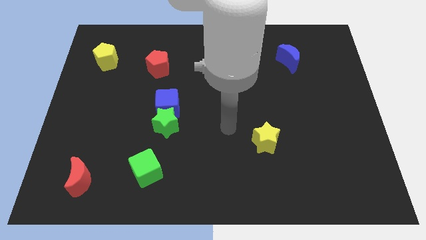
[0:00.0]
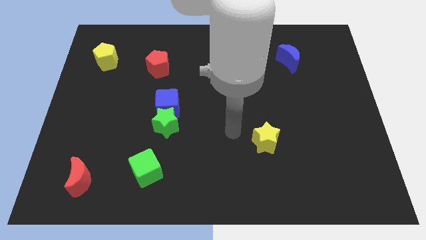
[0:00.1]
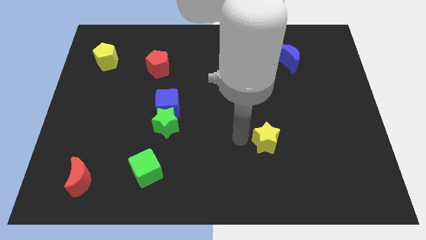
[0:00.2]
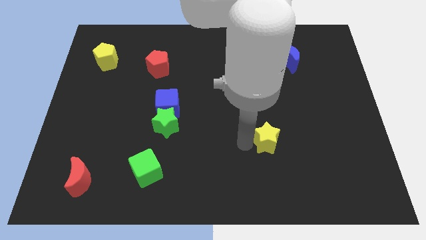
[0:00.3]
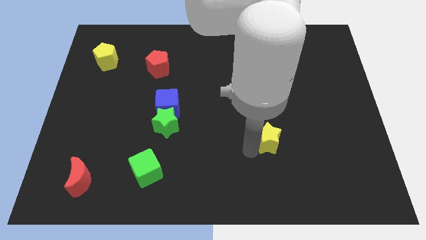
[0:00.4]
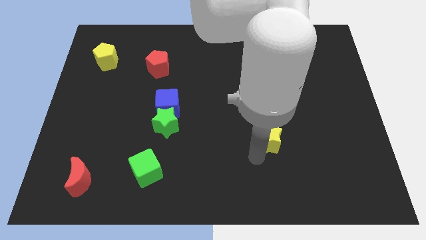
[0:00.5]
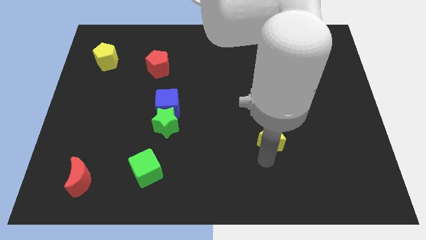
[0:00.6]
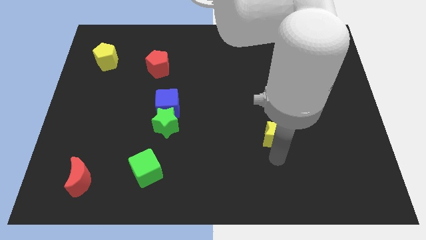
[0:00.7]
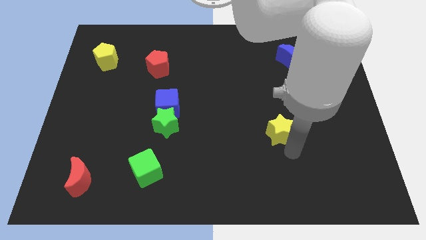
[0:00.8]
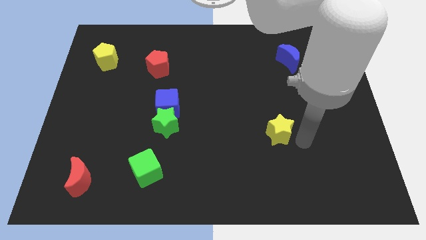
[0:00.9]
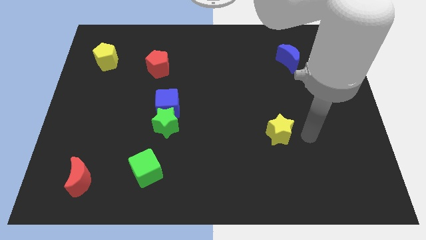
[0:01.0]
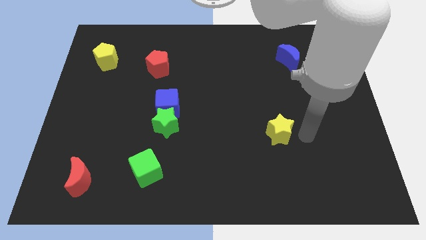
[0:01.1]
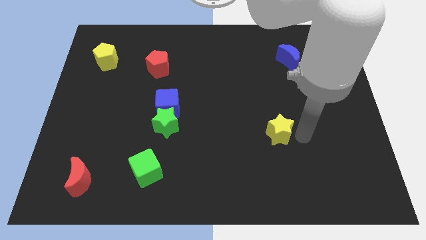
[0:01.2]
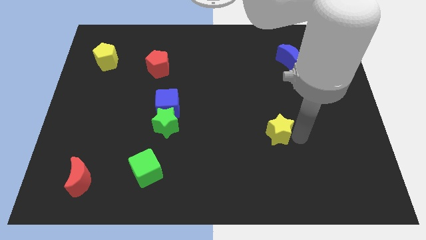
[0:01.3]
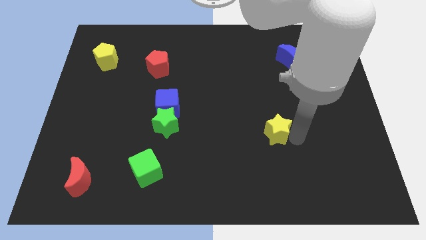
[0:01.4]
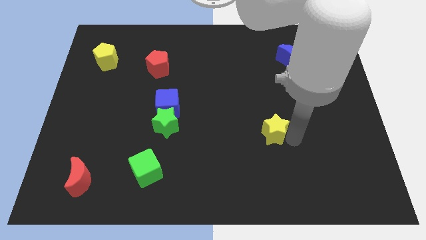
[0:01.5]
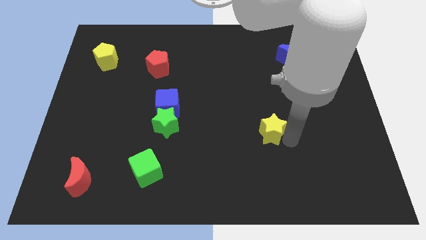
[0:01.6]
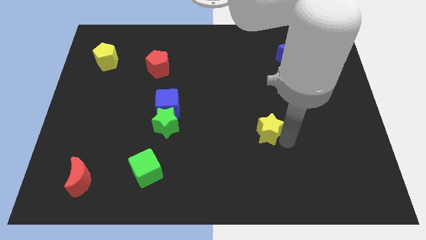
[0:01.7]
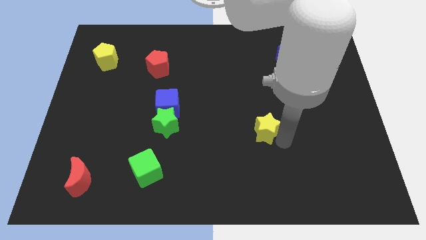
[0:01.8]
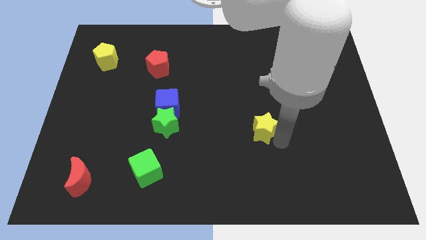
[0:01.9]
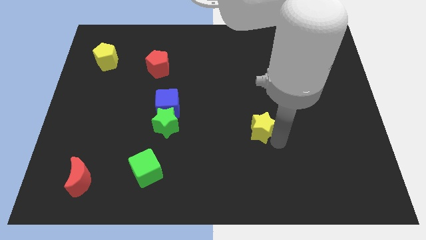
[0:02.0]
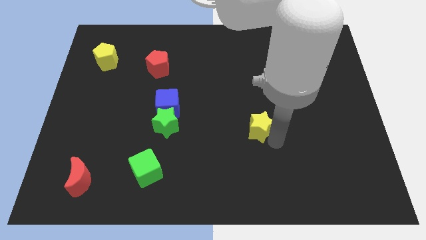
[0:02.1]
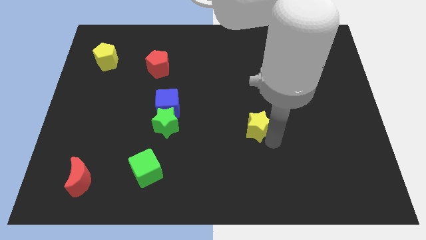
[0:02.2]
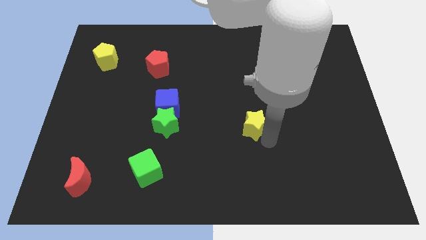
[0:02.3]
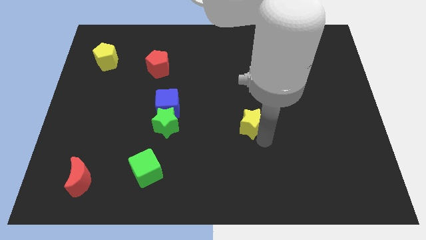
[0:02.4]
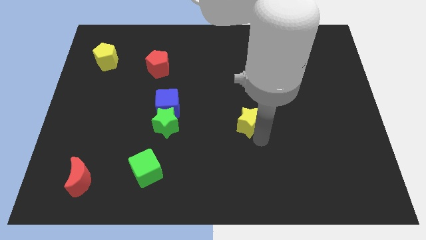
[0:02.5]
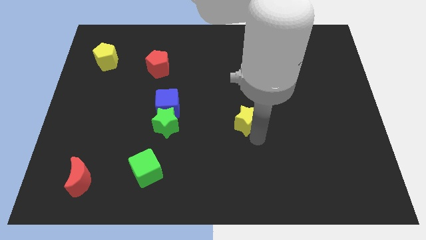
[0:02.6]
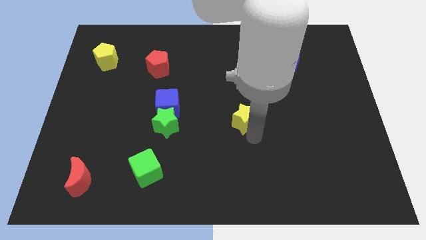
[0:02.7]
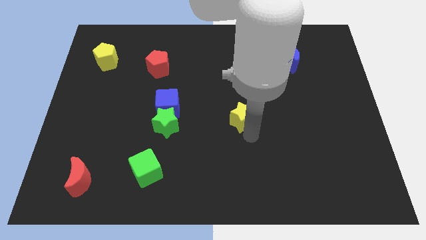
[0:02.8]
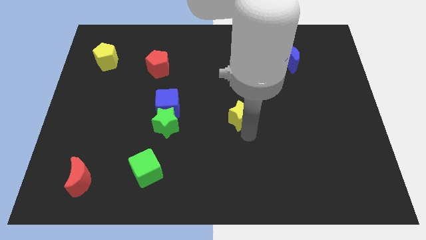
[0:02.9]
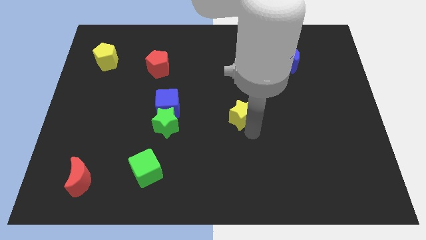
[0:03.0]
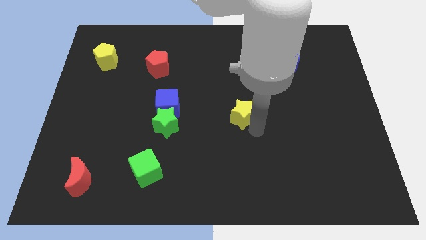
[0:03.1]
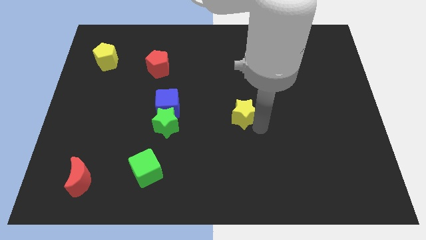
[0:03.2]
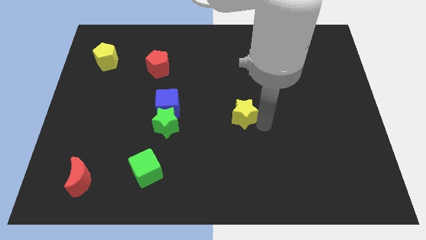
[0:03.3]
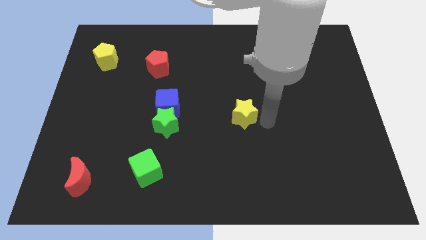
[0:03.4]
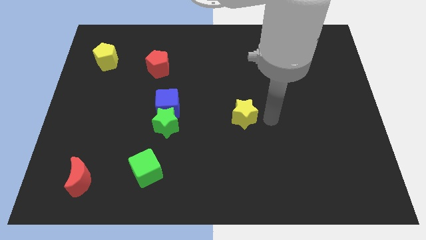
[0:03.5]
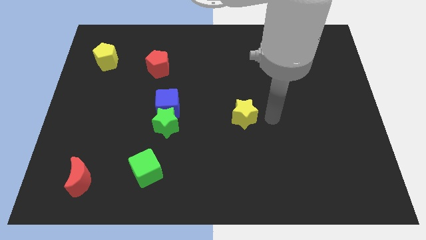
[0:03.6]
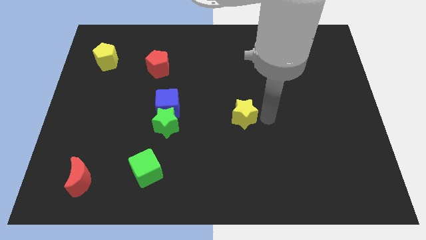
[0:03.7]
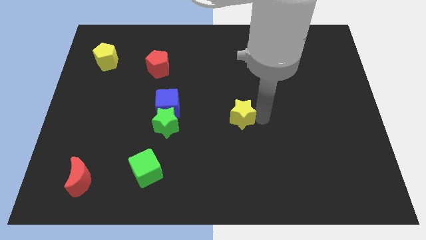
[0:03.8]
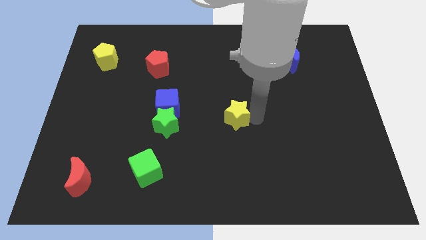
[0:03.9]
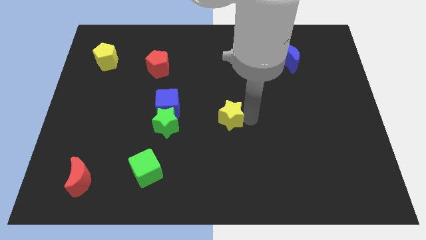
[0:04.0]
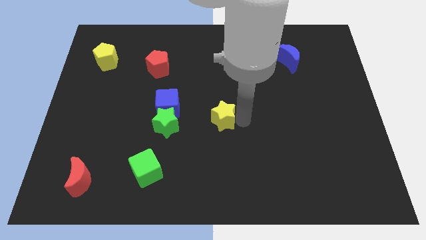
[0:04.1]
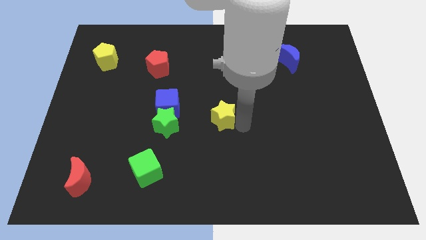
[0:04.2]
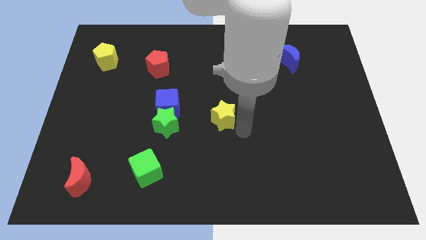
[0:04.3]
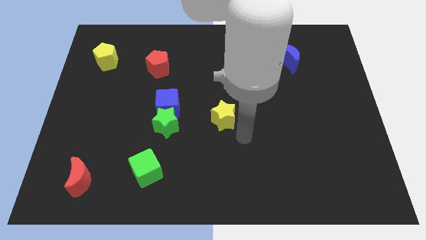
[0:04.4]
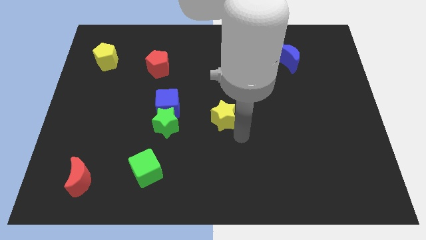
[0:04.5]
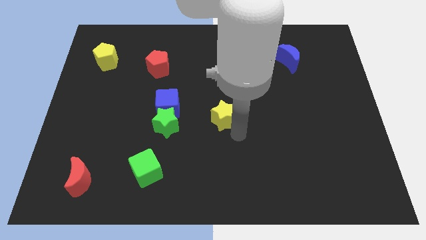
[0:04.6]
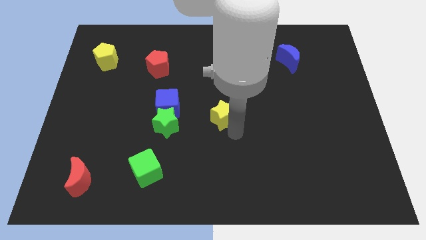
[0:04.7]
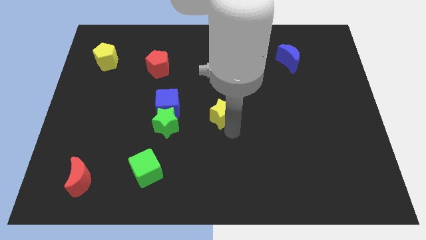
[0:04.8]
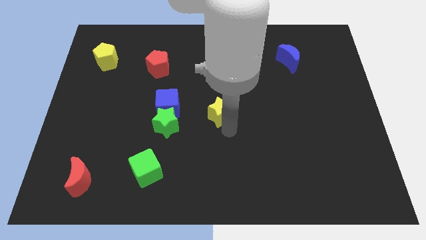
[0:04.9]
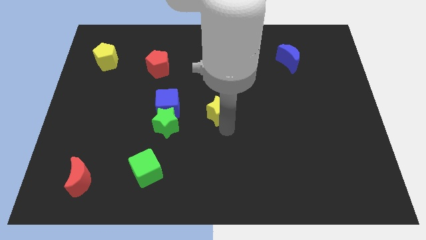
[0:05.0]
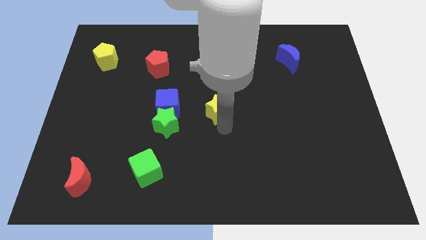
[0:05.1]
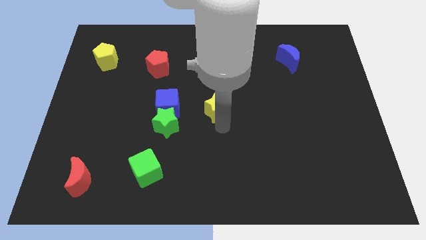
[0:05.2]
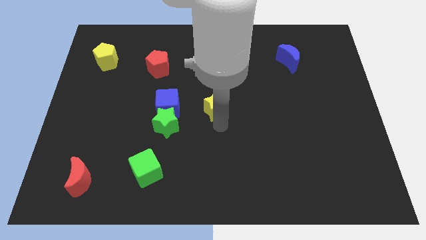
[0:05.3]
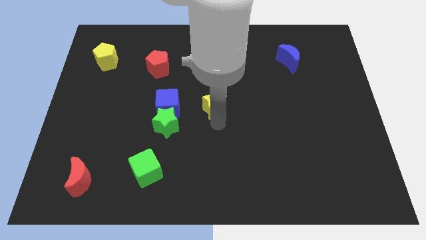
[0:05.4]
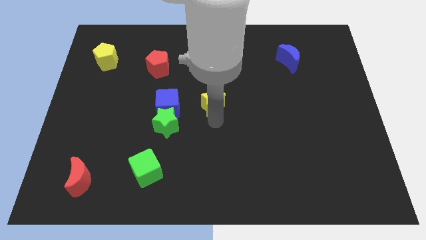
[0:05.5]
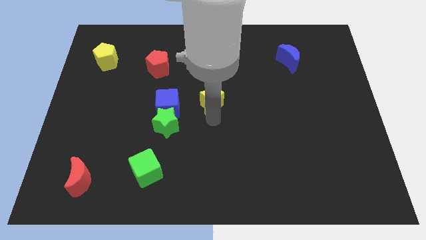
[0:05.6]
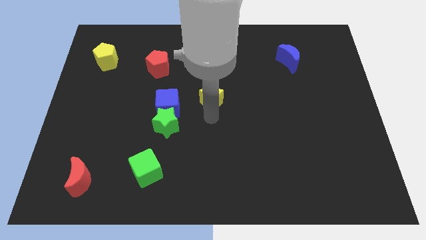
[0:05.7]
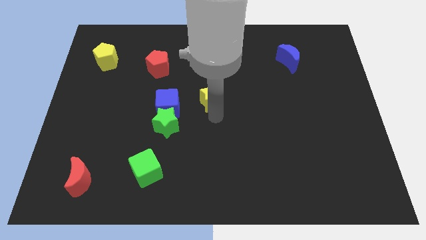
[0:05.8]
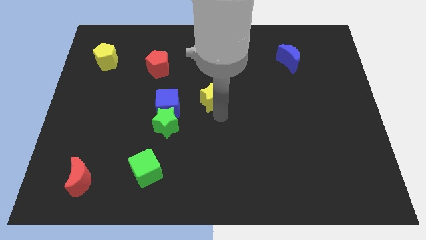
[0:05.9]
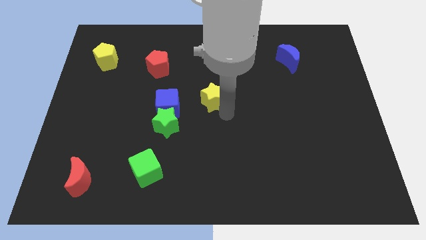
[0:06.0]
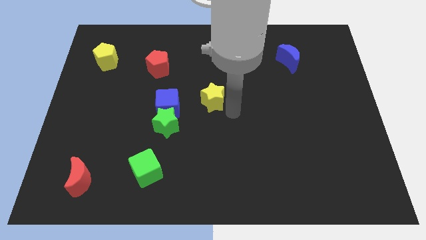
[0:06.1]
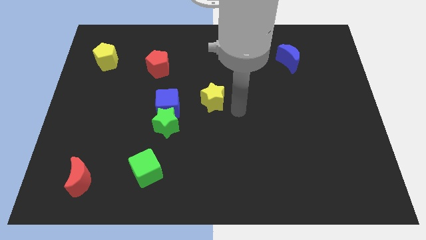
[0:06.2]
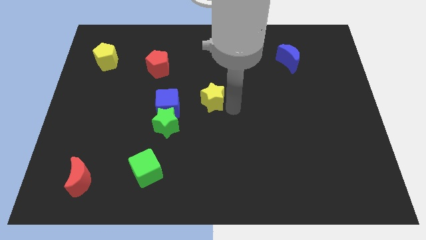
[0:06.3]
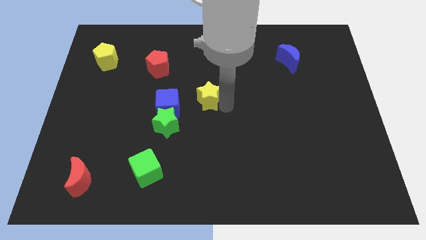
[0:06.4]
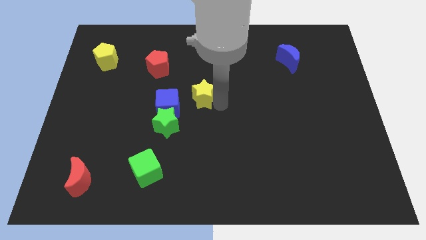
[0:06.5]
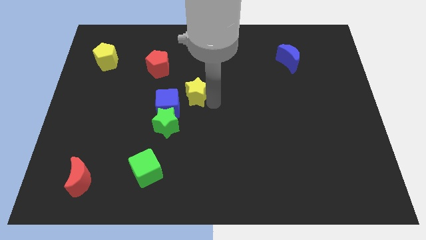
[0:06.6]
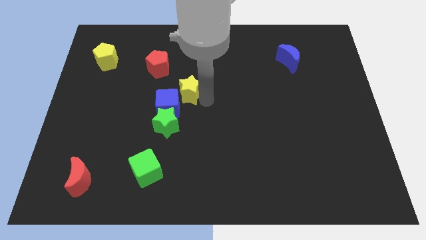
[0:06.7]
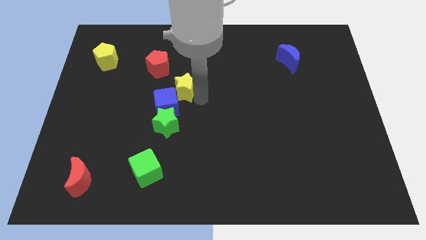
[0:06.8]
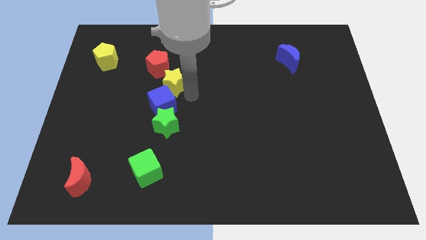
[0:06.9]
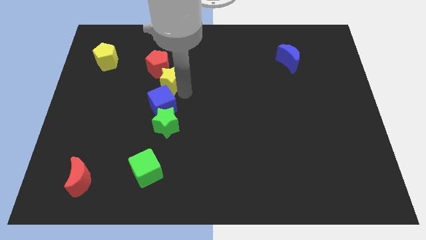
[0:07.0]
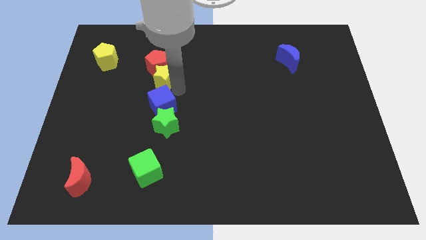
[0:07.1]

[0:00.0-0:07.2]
push the yellow star next to the red pentagon

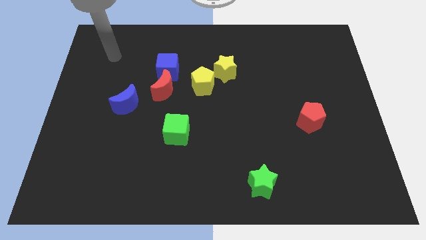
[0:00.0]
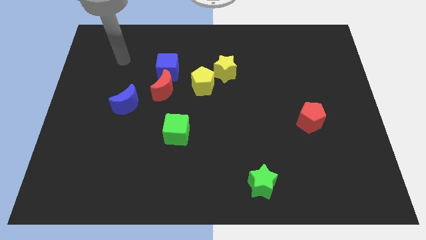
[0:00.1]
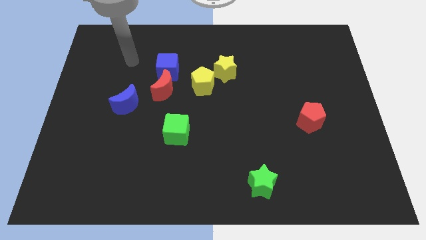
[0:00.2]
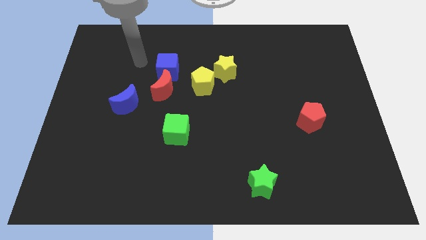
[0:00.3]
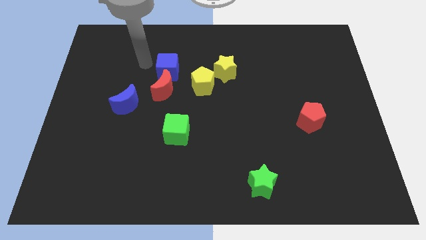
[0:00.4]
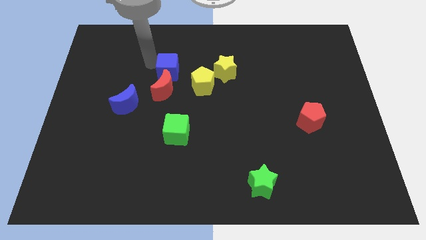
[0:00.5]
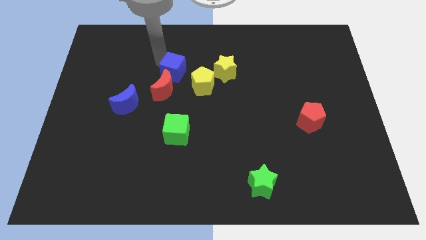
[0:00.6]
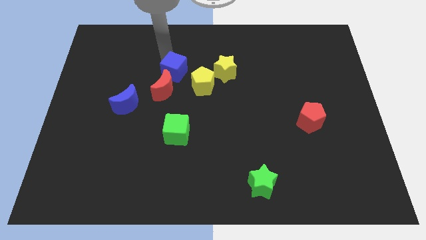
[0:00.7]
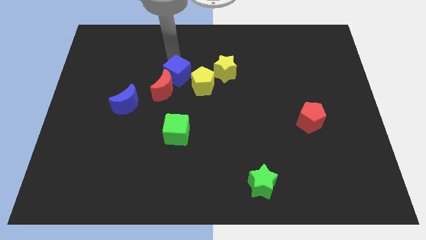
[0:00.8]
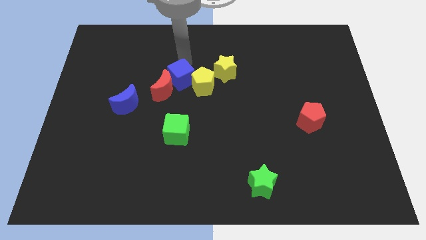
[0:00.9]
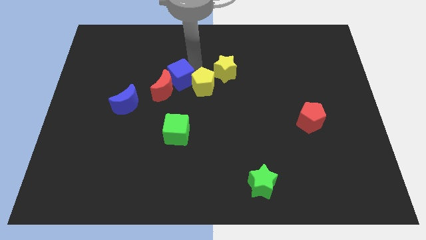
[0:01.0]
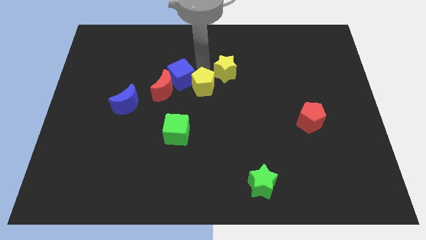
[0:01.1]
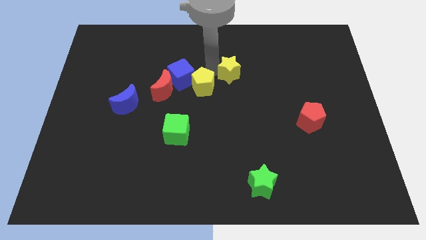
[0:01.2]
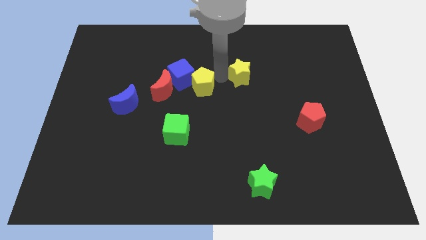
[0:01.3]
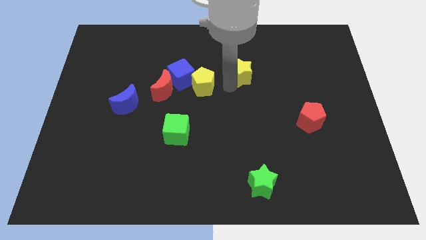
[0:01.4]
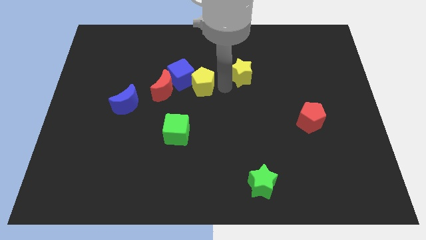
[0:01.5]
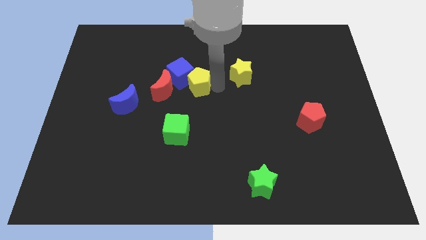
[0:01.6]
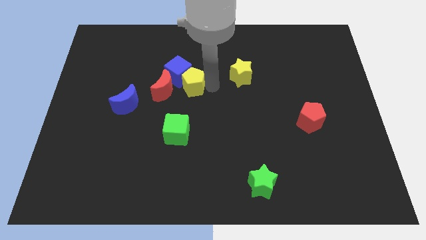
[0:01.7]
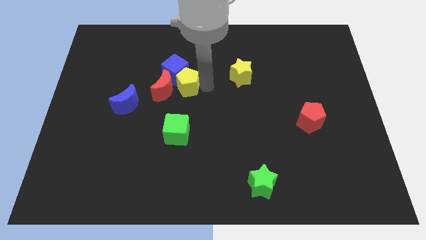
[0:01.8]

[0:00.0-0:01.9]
move the yellow pentagon to the red moon
